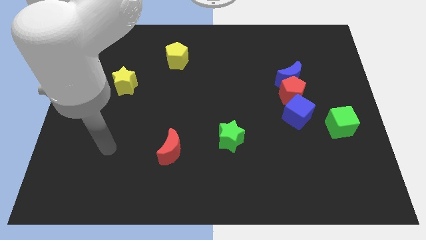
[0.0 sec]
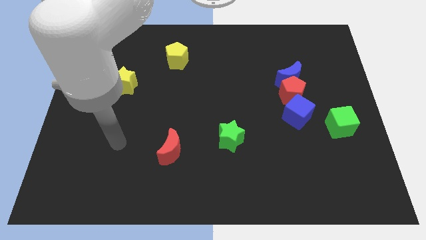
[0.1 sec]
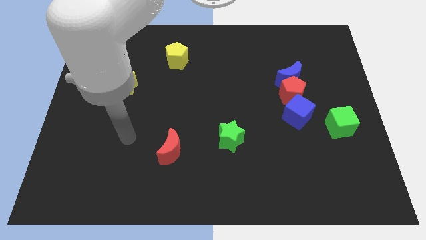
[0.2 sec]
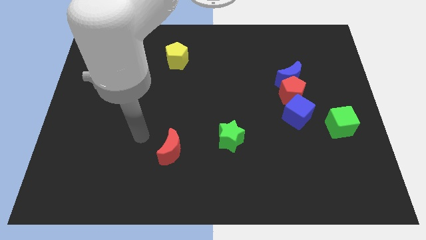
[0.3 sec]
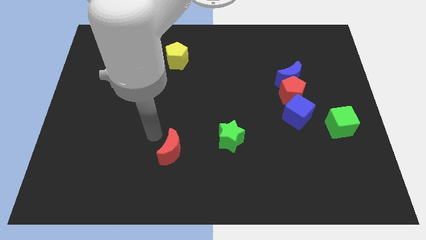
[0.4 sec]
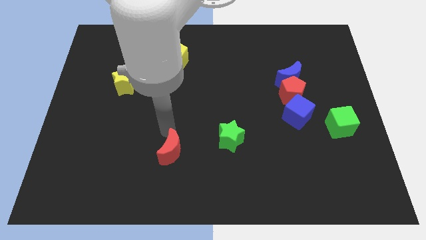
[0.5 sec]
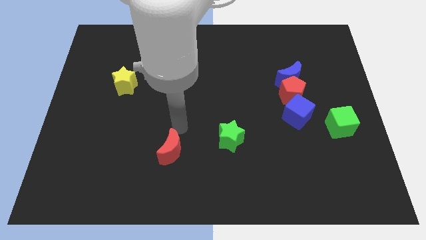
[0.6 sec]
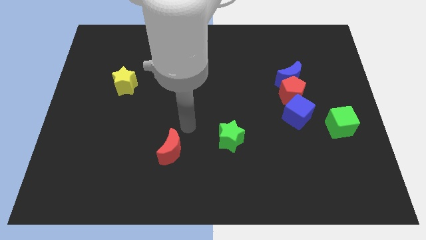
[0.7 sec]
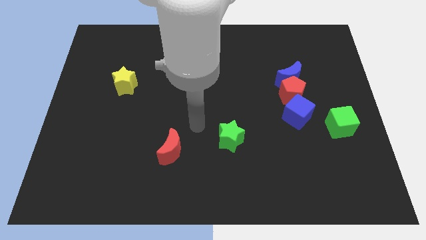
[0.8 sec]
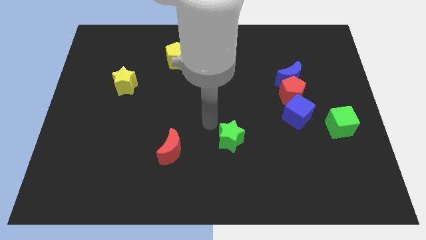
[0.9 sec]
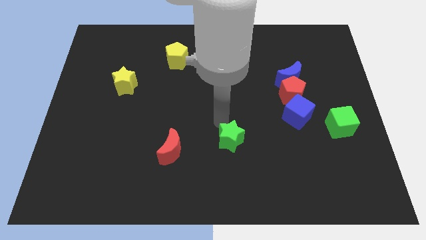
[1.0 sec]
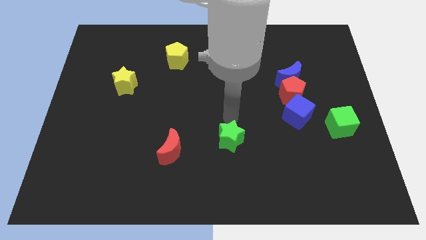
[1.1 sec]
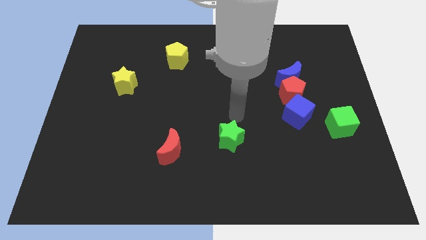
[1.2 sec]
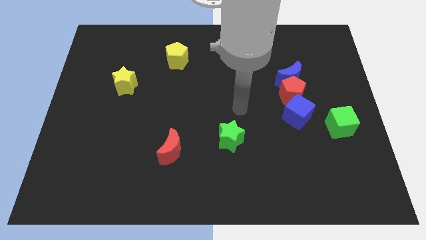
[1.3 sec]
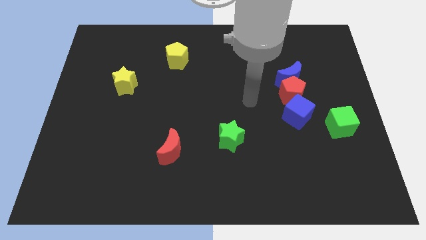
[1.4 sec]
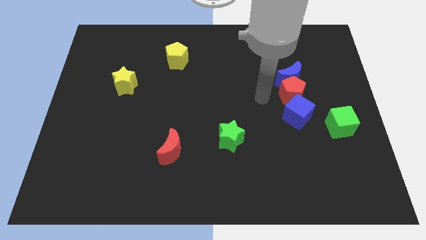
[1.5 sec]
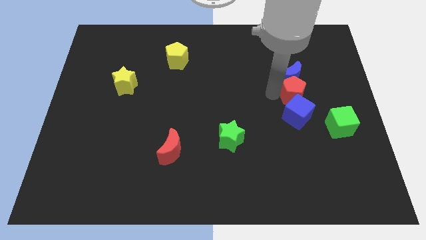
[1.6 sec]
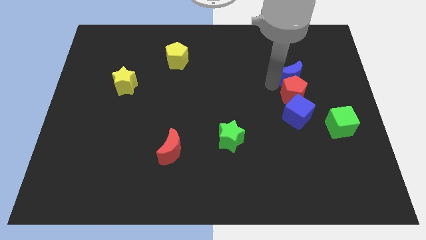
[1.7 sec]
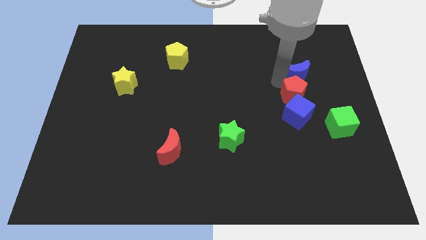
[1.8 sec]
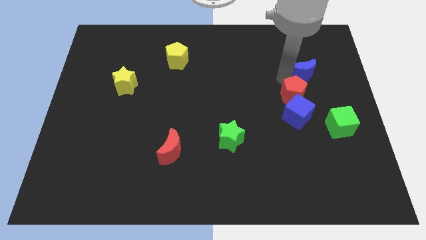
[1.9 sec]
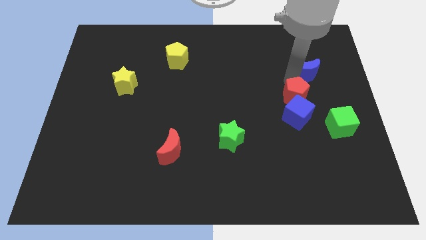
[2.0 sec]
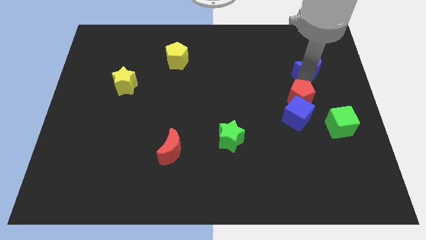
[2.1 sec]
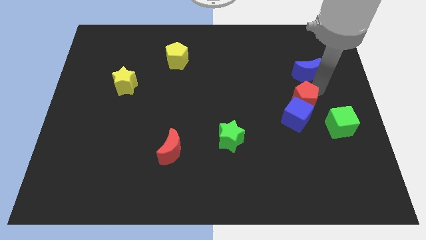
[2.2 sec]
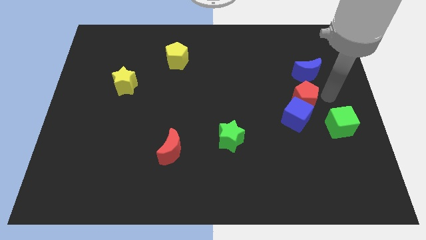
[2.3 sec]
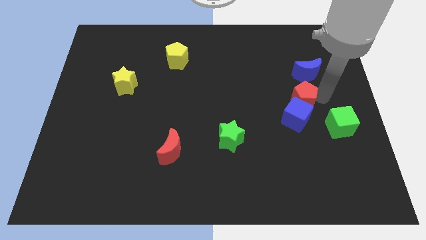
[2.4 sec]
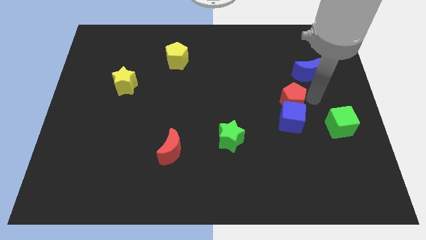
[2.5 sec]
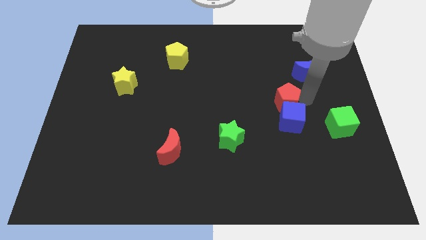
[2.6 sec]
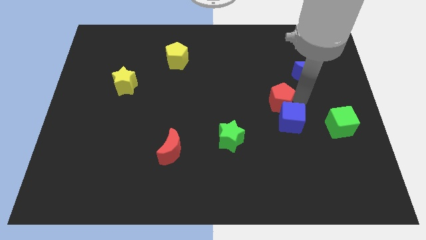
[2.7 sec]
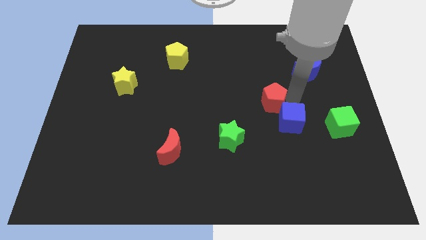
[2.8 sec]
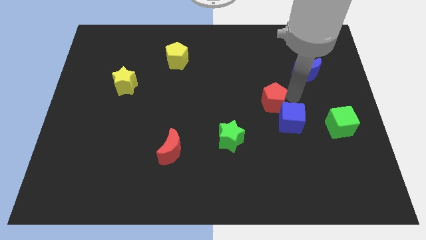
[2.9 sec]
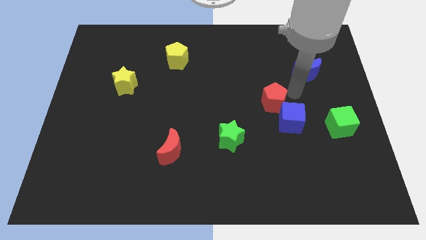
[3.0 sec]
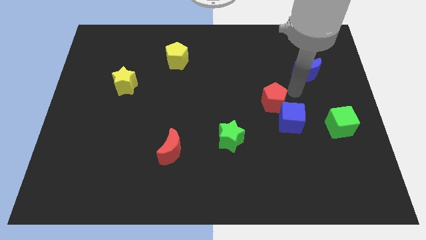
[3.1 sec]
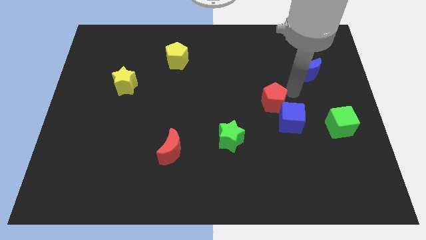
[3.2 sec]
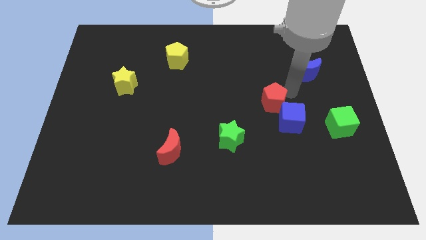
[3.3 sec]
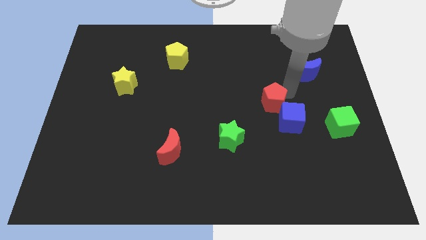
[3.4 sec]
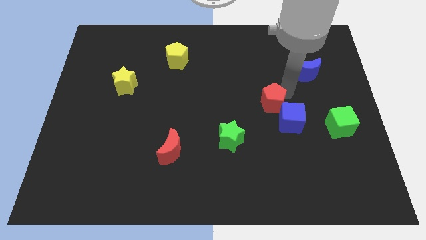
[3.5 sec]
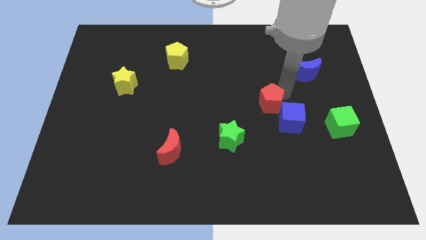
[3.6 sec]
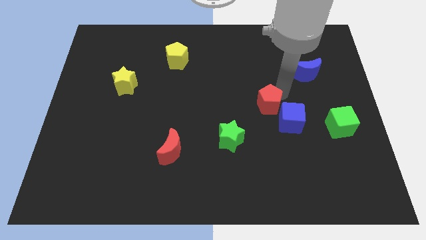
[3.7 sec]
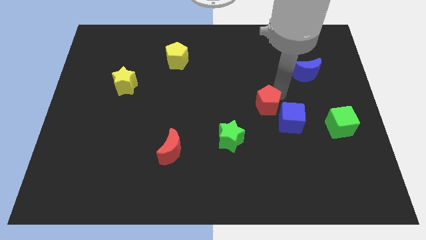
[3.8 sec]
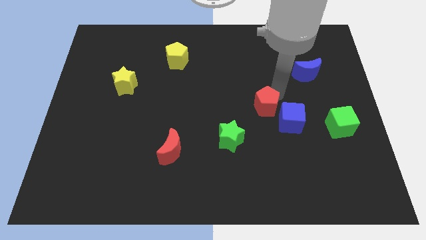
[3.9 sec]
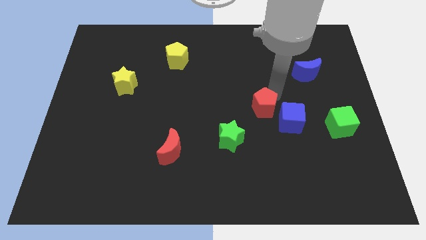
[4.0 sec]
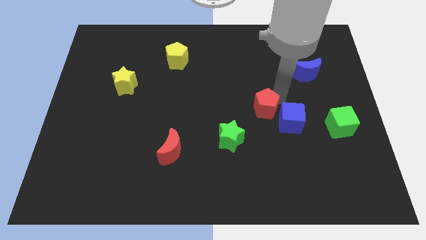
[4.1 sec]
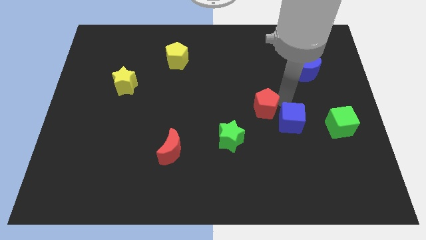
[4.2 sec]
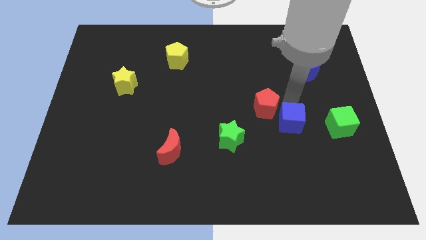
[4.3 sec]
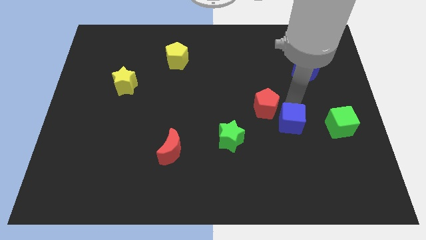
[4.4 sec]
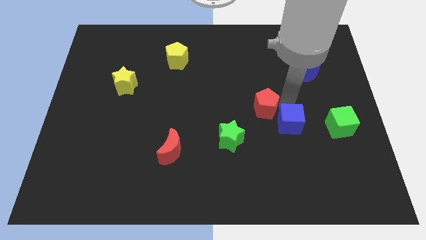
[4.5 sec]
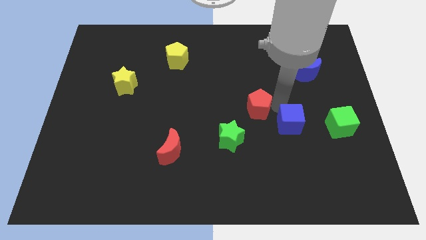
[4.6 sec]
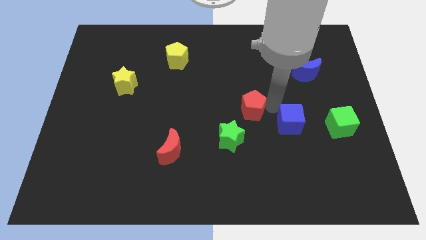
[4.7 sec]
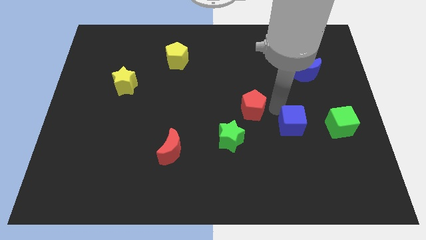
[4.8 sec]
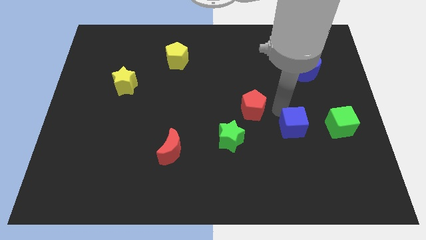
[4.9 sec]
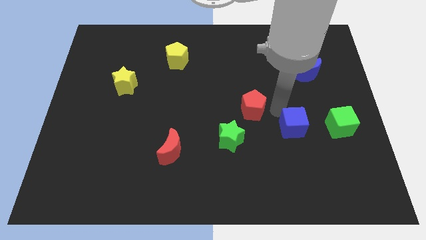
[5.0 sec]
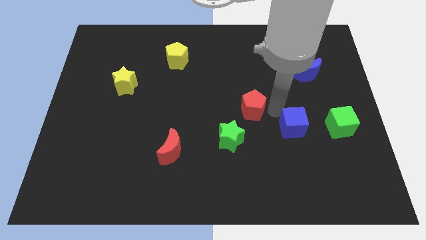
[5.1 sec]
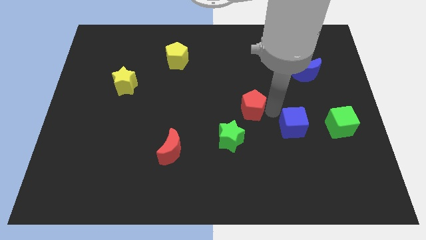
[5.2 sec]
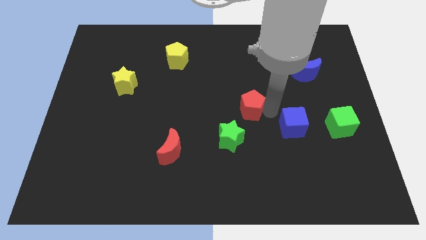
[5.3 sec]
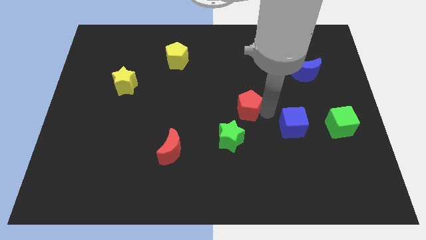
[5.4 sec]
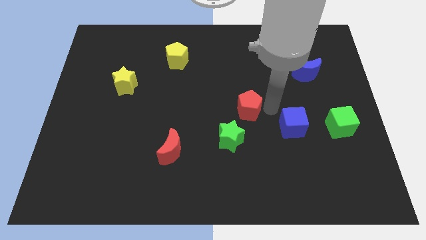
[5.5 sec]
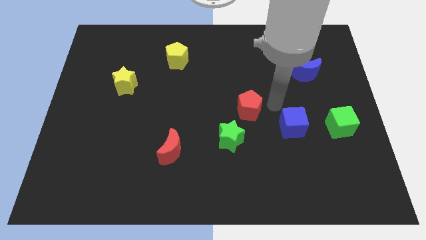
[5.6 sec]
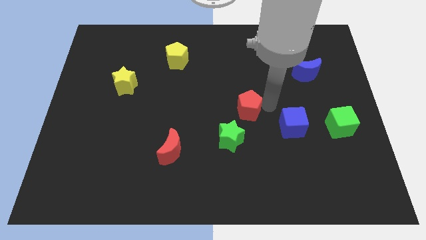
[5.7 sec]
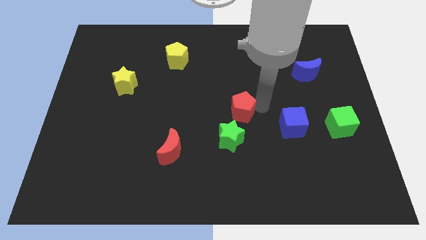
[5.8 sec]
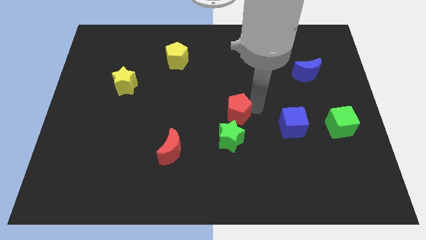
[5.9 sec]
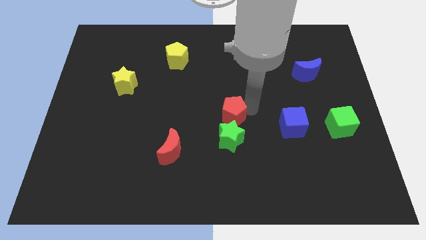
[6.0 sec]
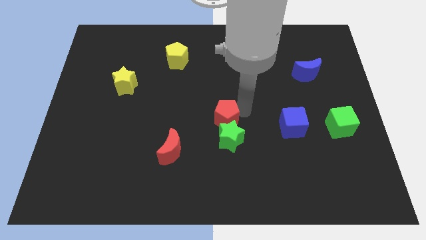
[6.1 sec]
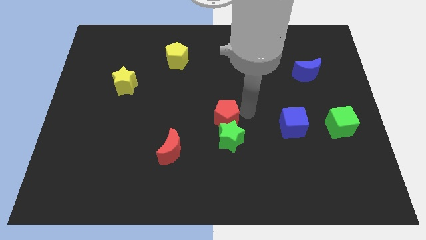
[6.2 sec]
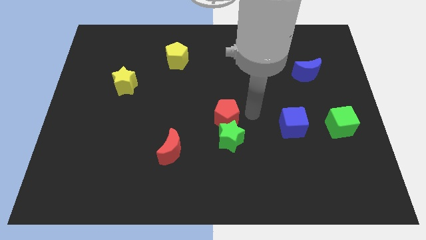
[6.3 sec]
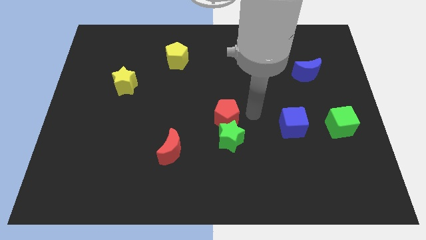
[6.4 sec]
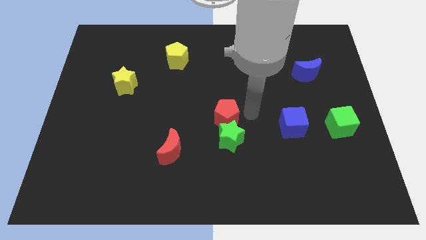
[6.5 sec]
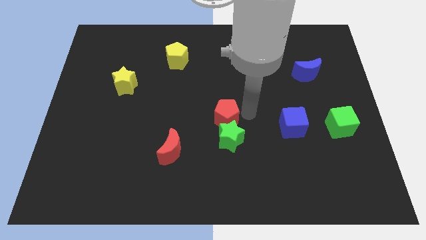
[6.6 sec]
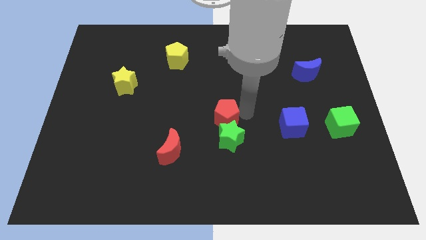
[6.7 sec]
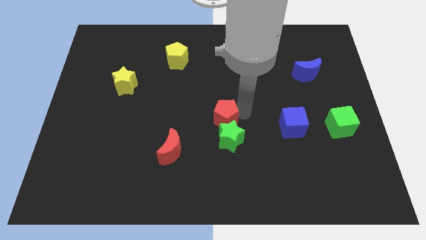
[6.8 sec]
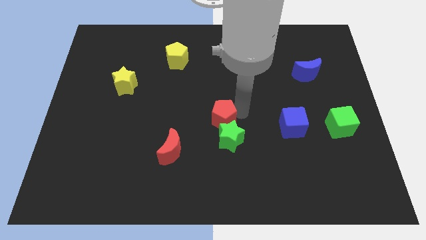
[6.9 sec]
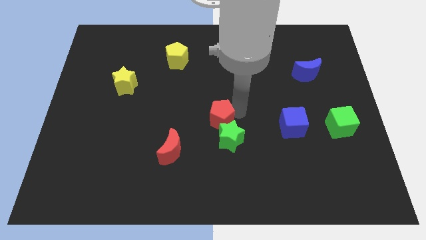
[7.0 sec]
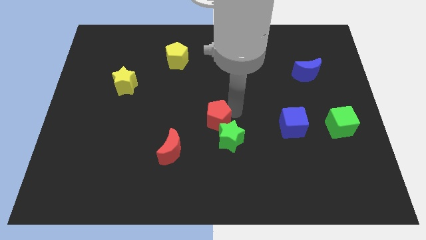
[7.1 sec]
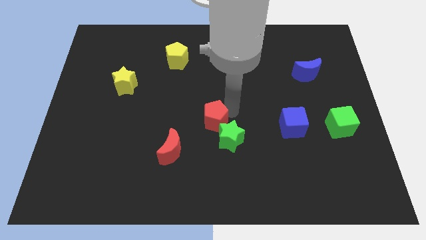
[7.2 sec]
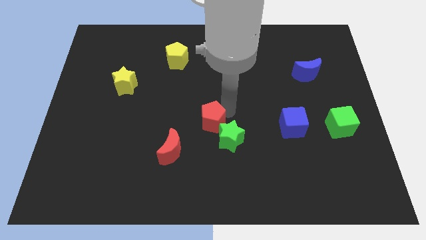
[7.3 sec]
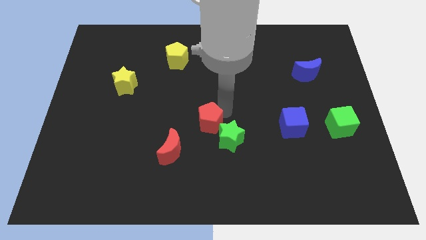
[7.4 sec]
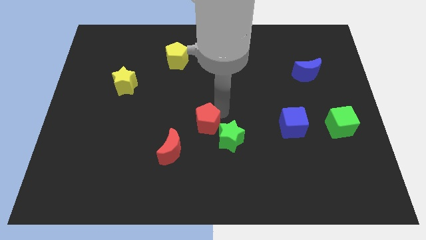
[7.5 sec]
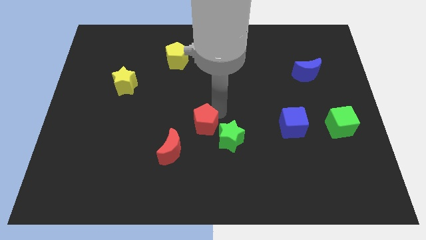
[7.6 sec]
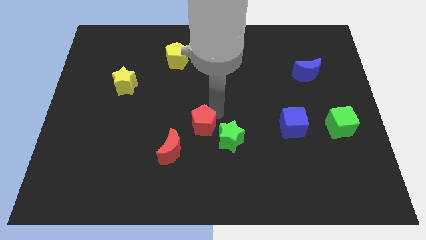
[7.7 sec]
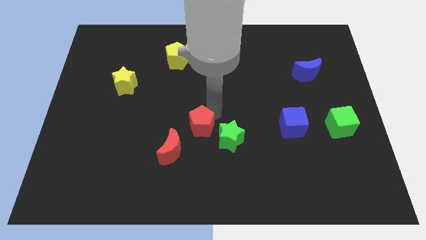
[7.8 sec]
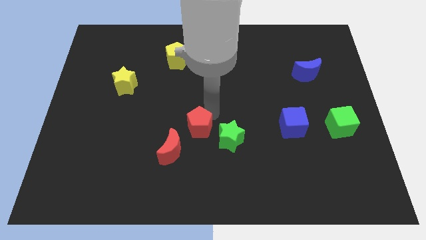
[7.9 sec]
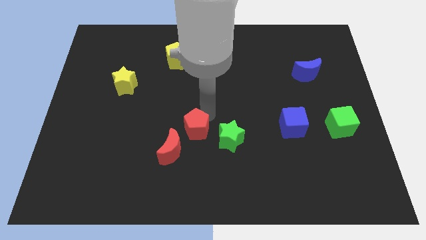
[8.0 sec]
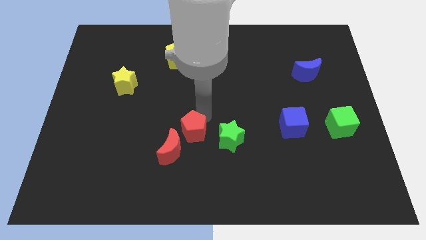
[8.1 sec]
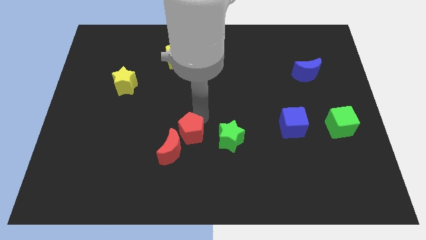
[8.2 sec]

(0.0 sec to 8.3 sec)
slide the red pentagon towards the red moon
